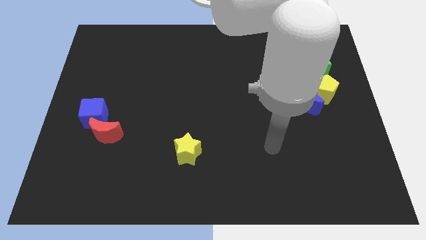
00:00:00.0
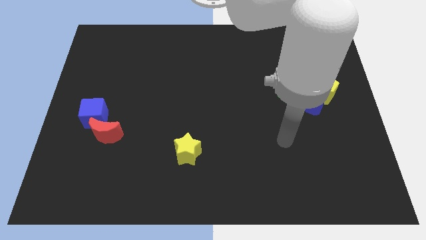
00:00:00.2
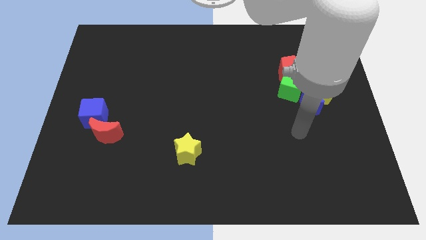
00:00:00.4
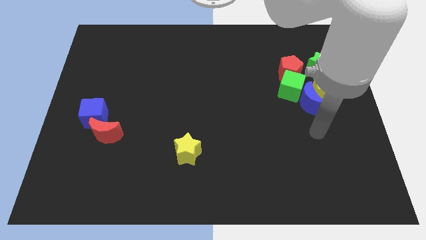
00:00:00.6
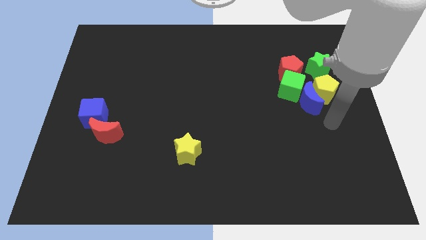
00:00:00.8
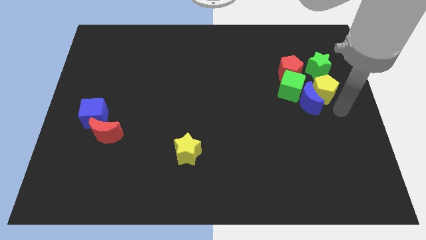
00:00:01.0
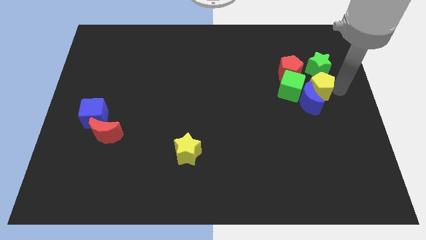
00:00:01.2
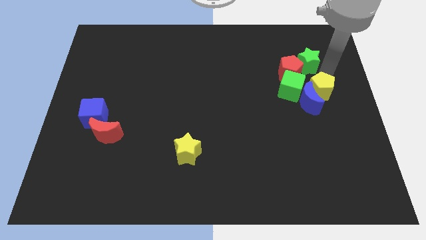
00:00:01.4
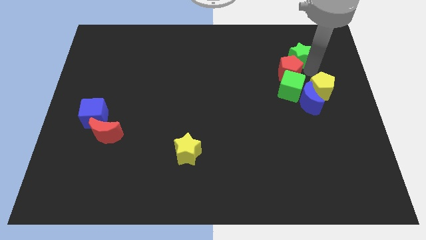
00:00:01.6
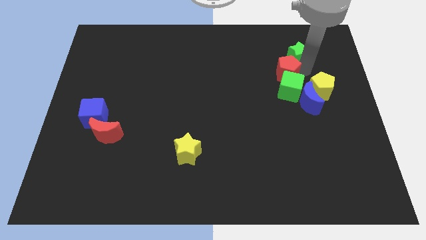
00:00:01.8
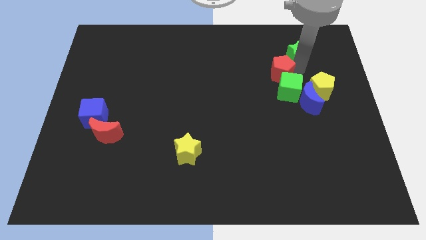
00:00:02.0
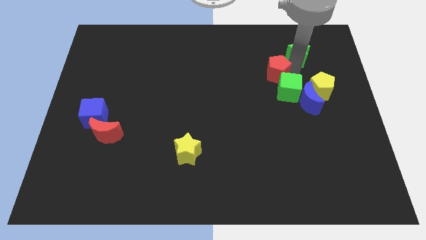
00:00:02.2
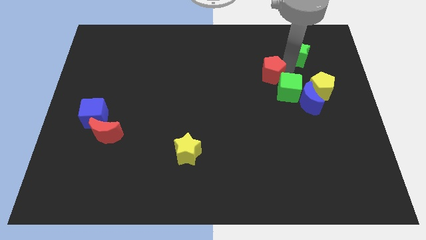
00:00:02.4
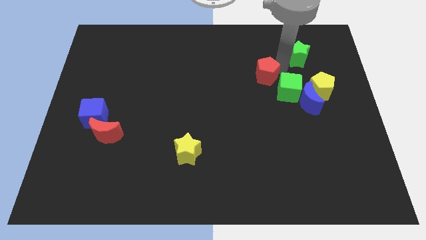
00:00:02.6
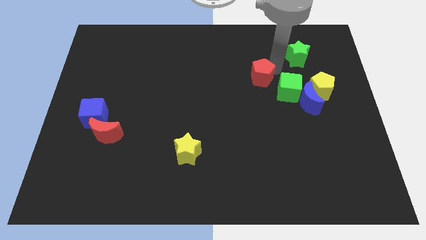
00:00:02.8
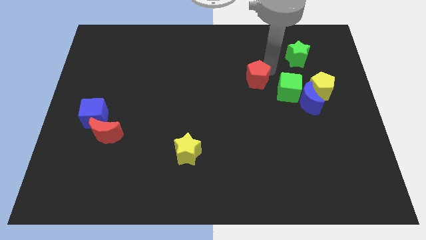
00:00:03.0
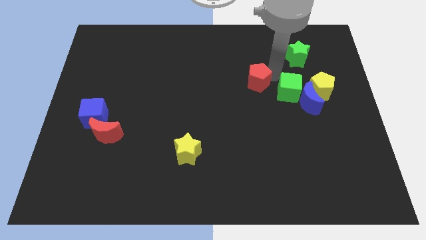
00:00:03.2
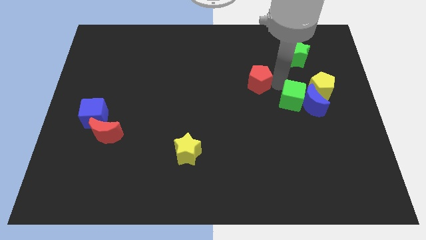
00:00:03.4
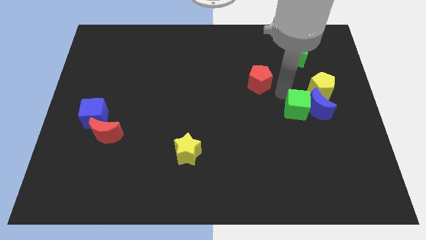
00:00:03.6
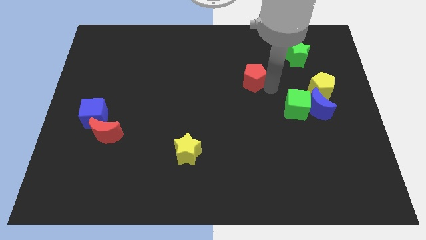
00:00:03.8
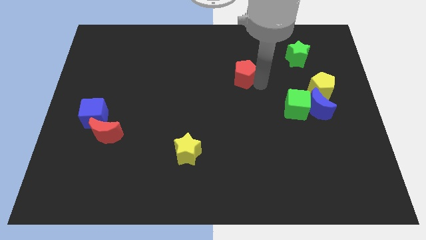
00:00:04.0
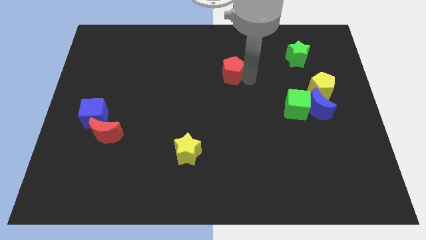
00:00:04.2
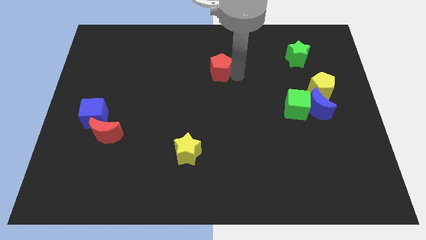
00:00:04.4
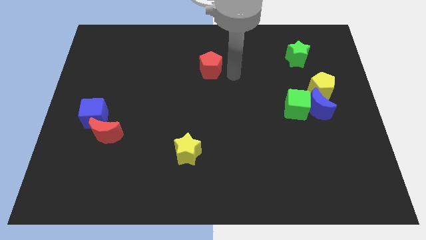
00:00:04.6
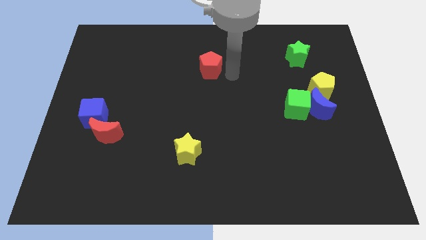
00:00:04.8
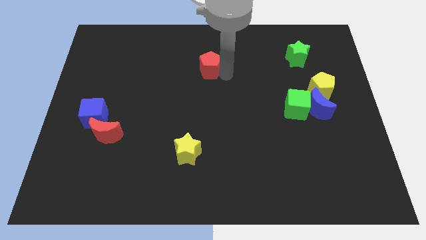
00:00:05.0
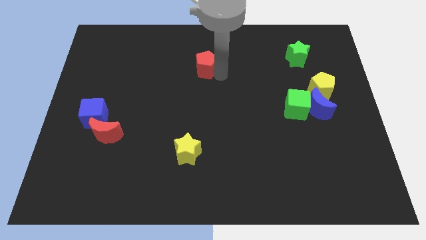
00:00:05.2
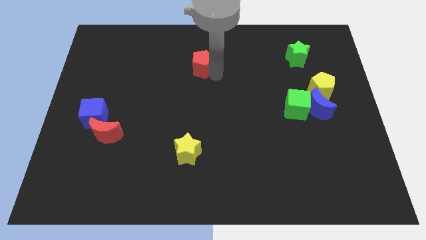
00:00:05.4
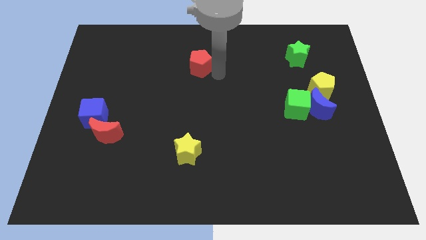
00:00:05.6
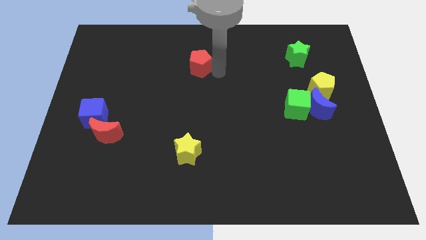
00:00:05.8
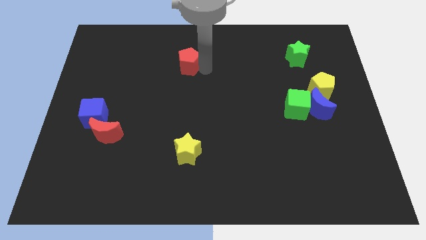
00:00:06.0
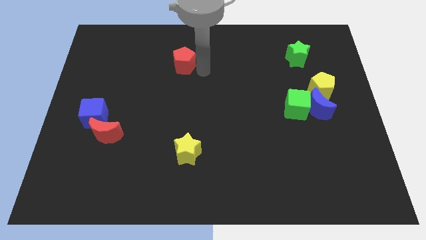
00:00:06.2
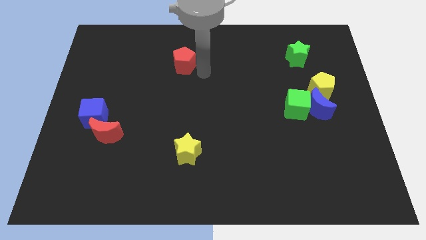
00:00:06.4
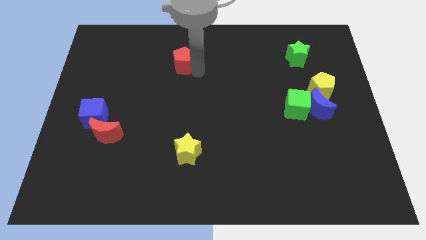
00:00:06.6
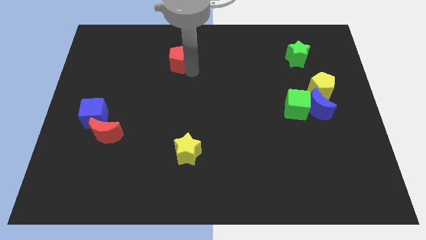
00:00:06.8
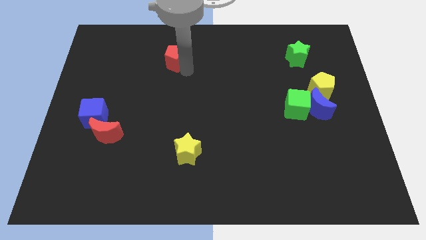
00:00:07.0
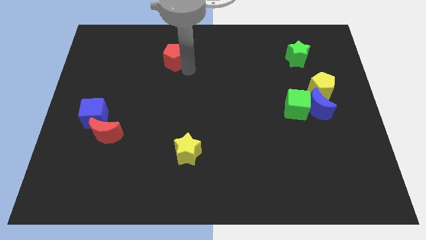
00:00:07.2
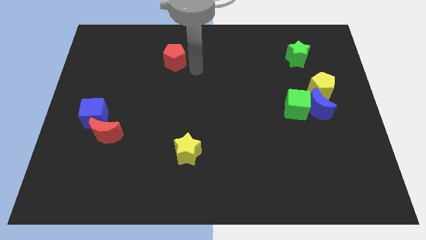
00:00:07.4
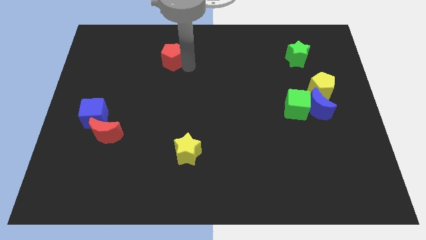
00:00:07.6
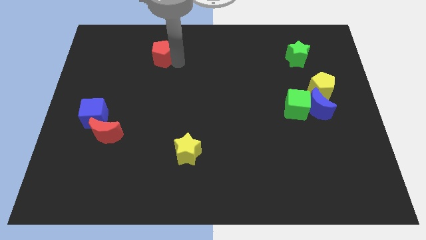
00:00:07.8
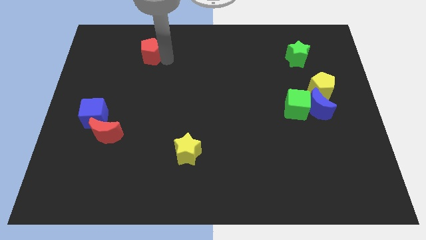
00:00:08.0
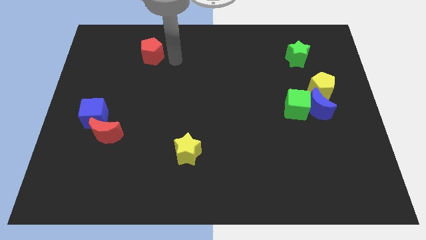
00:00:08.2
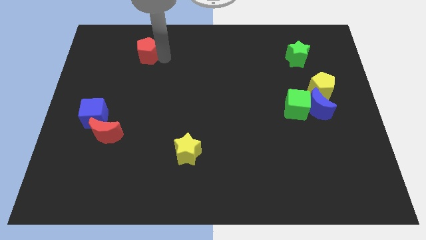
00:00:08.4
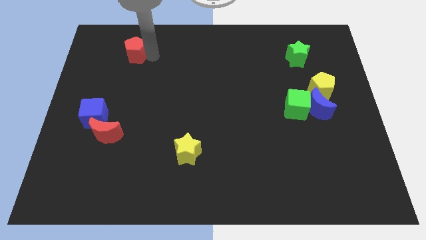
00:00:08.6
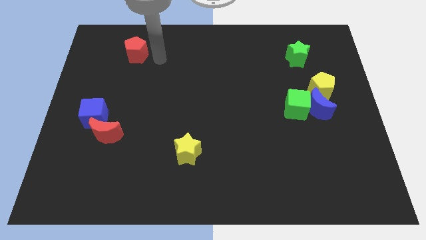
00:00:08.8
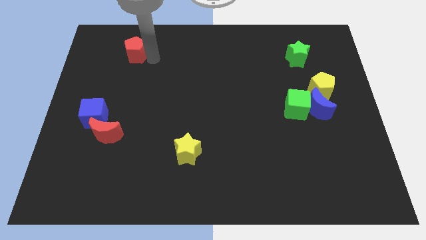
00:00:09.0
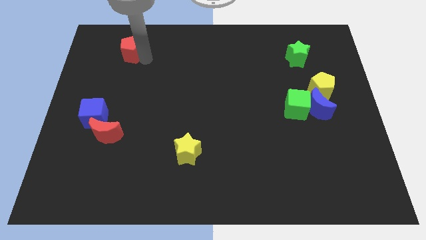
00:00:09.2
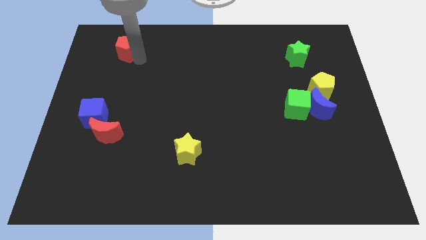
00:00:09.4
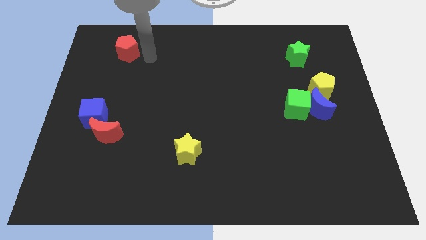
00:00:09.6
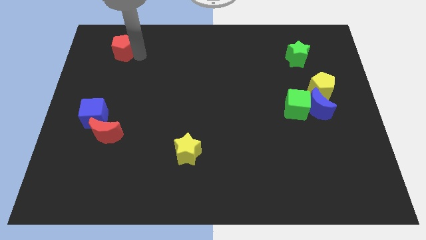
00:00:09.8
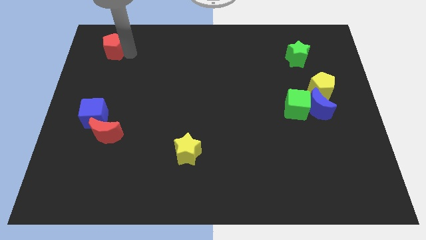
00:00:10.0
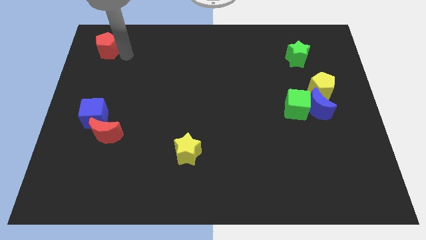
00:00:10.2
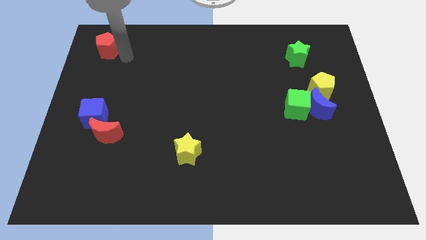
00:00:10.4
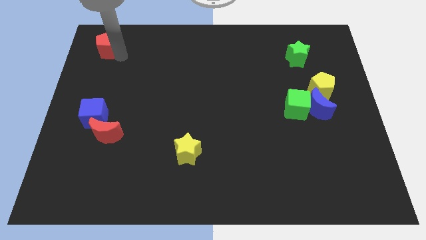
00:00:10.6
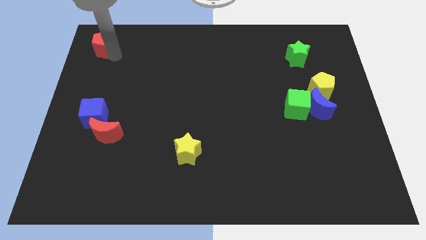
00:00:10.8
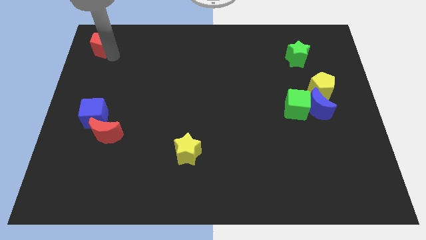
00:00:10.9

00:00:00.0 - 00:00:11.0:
slide the red pentagon to the upper left corner
